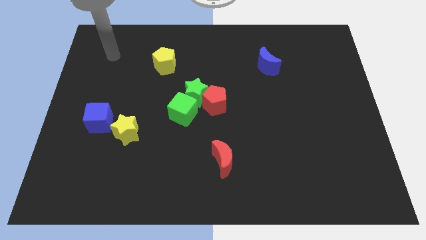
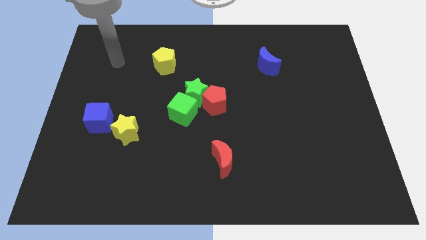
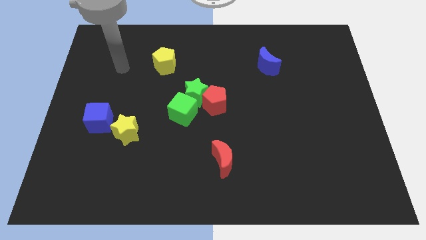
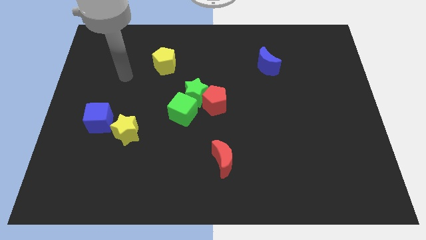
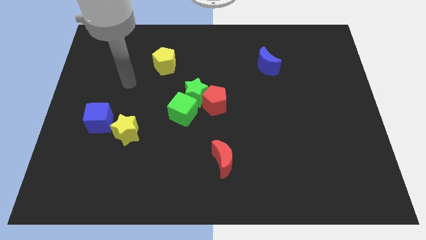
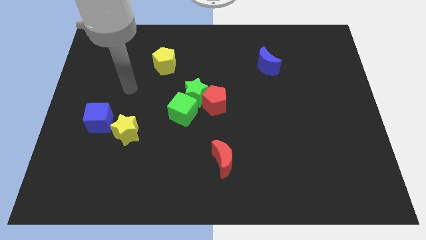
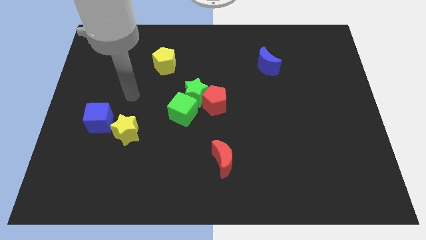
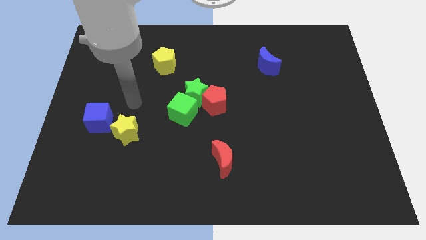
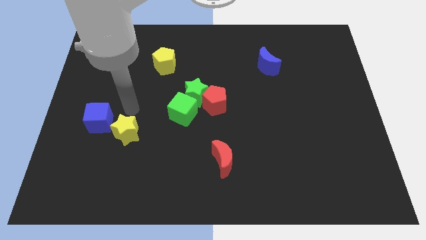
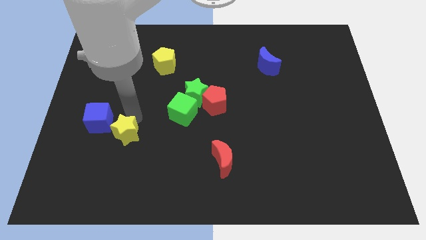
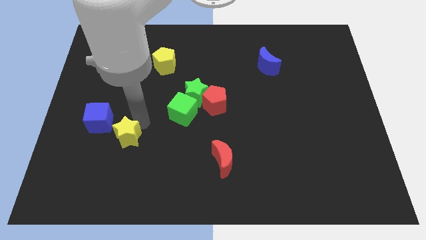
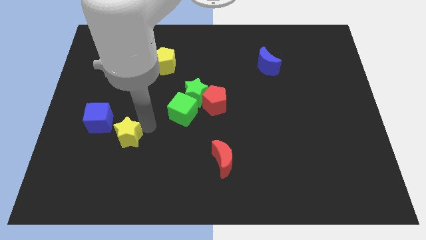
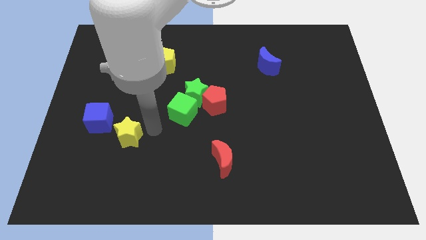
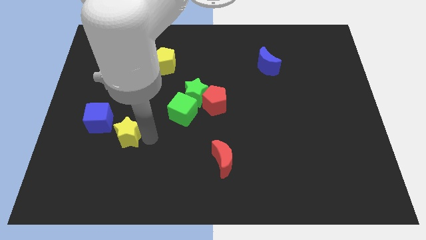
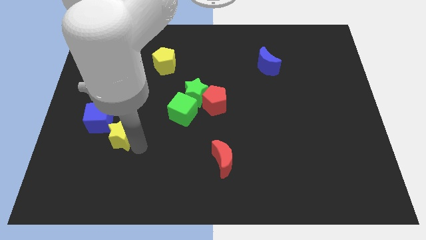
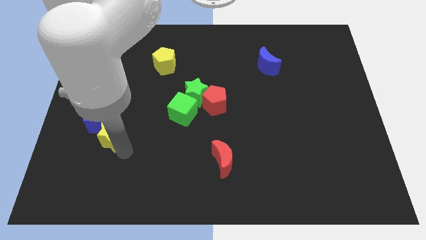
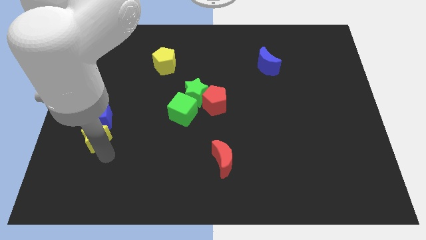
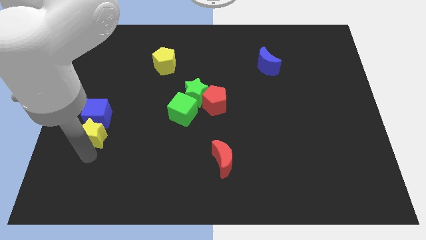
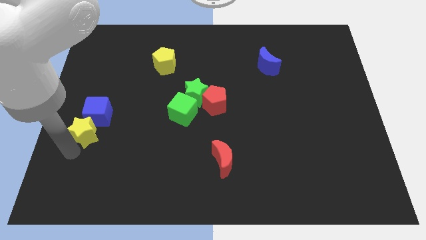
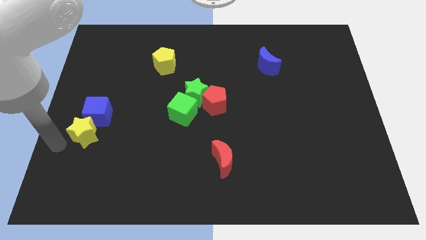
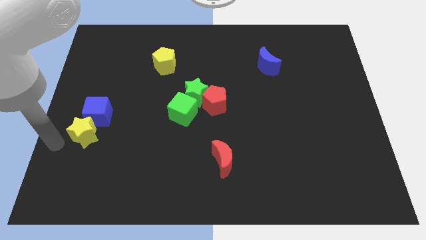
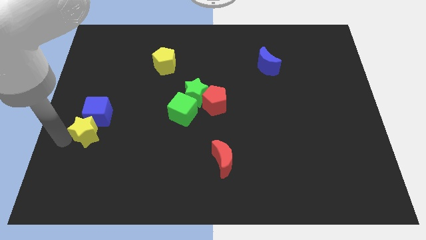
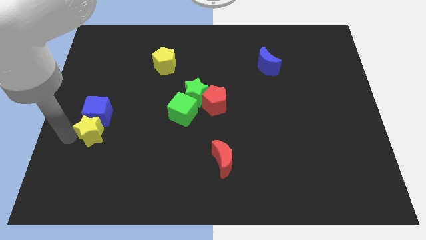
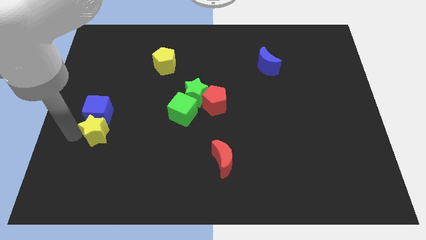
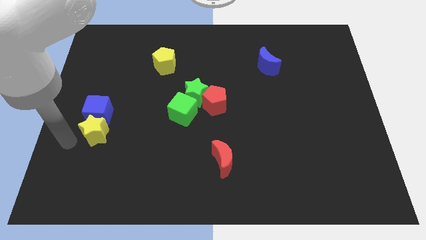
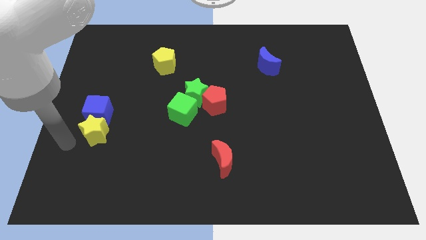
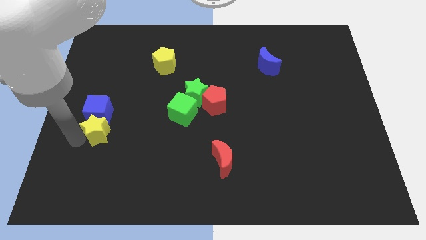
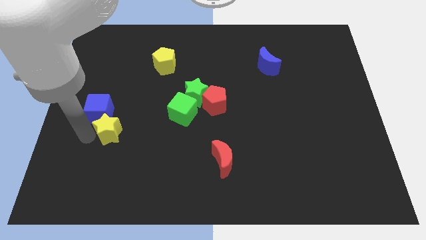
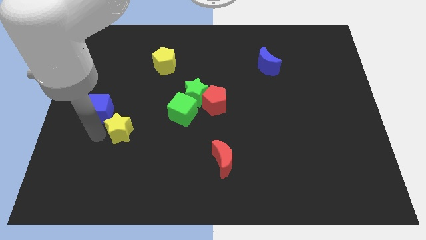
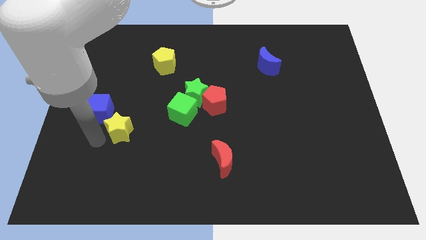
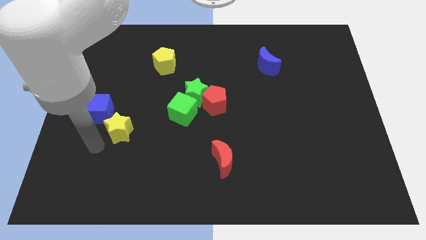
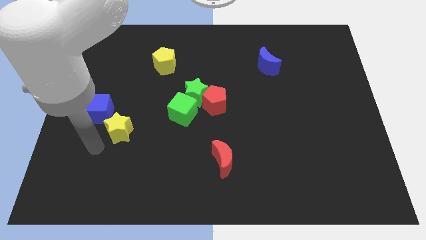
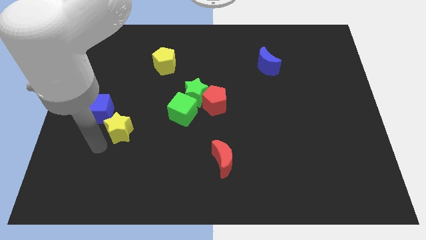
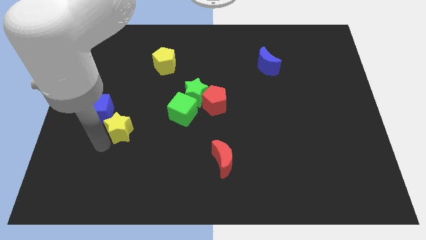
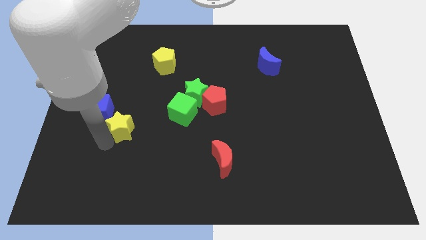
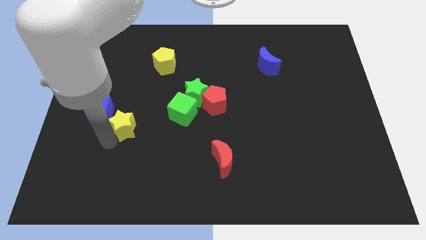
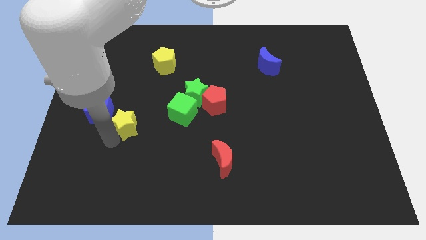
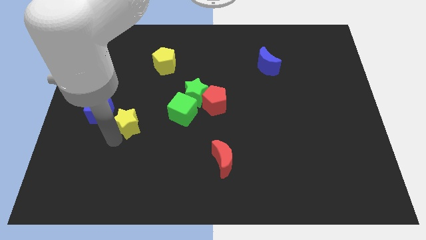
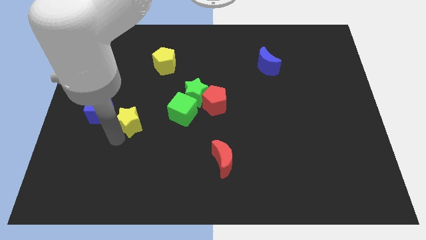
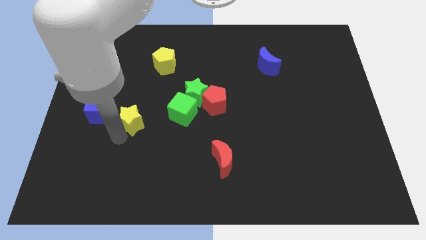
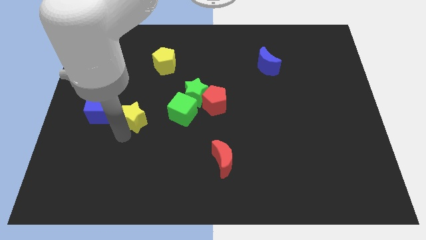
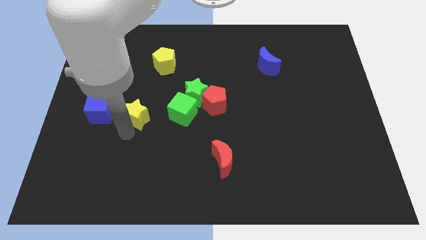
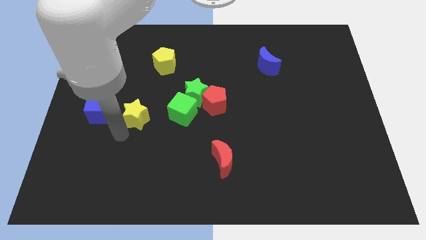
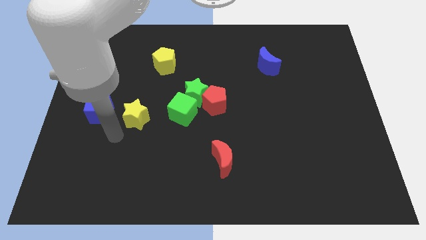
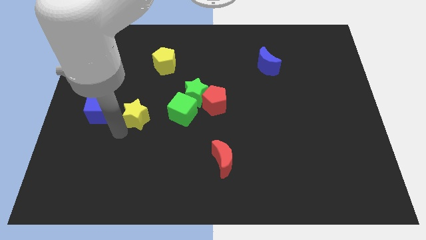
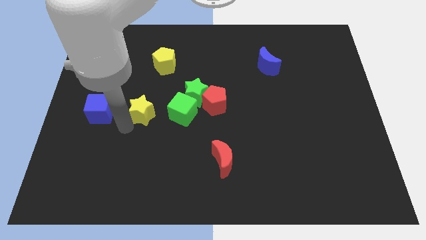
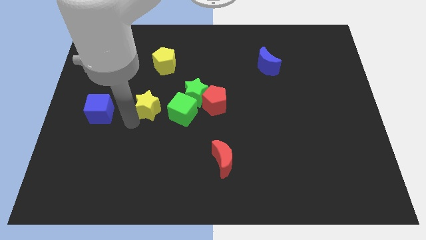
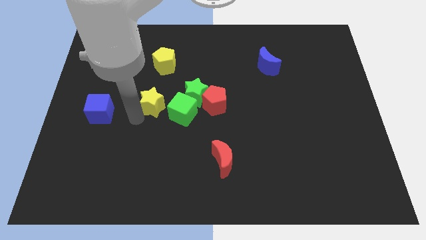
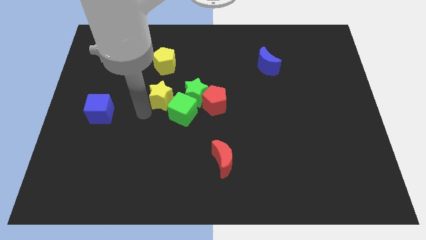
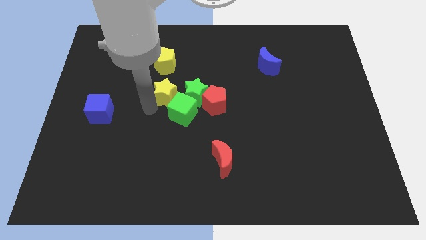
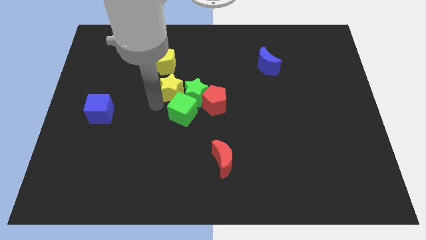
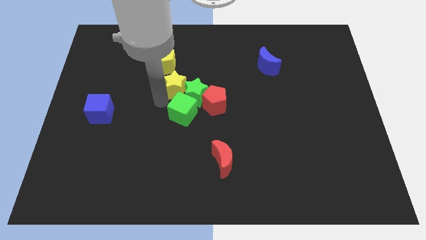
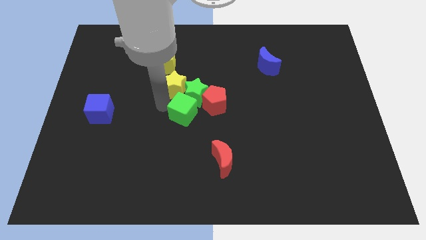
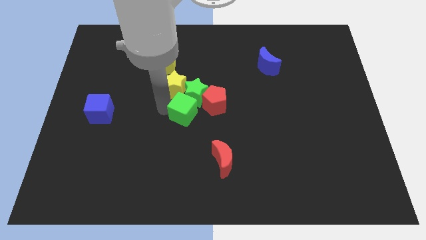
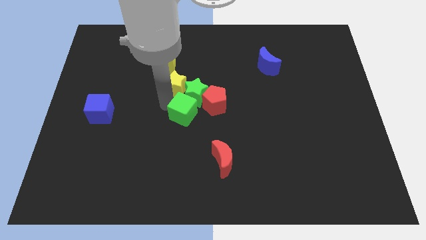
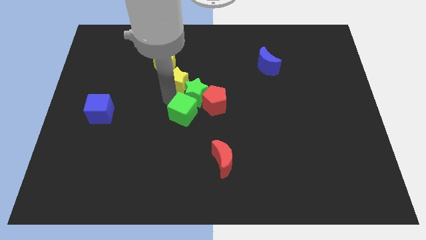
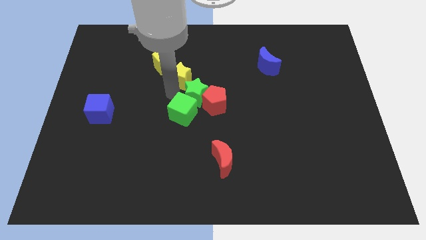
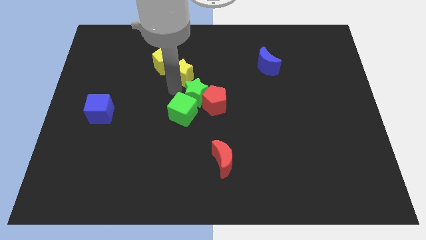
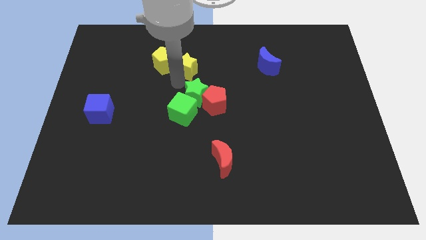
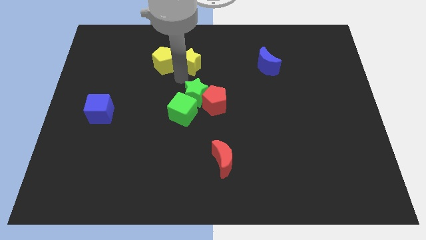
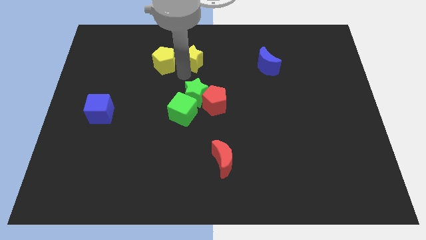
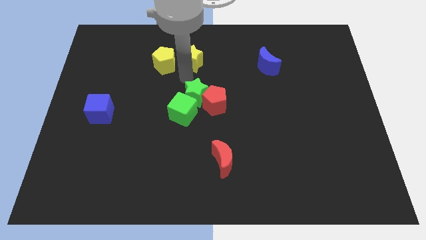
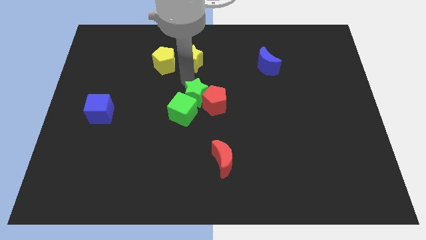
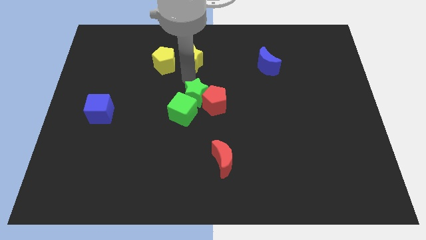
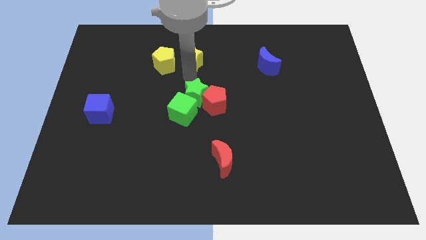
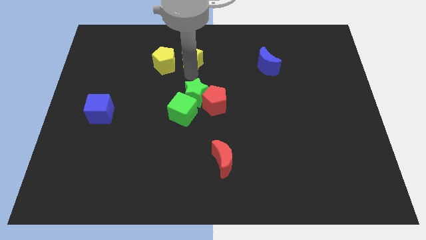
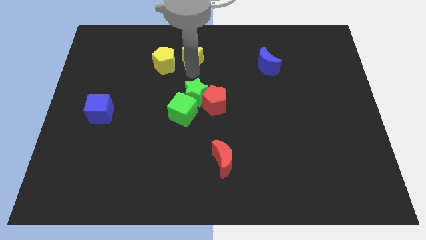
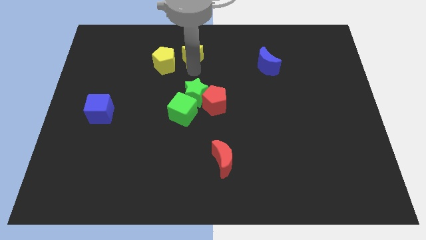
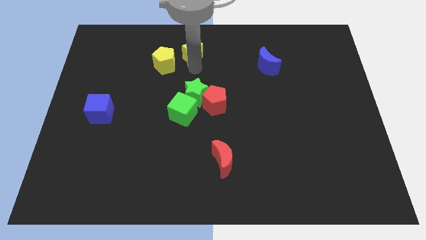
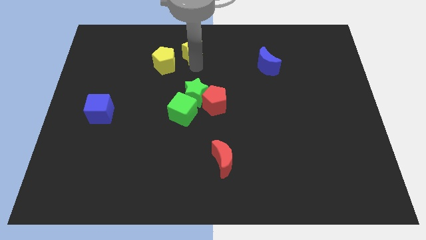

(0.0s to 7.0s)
push the yellow star to the towards your base
